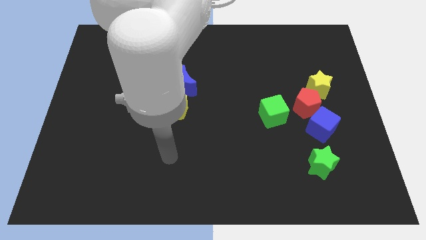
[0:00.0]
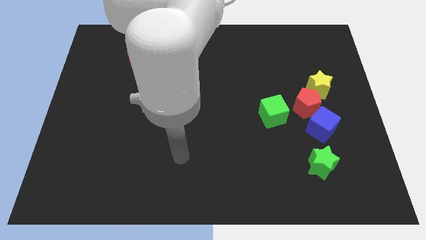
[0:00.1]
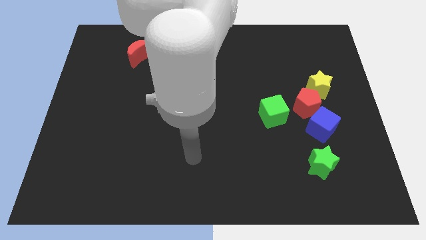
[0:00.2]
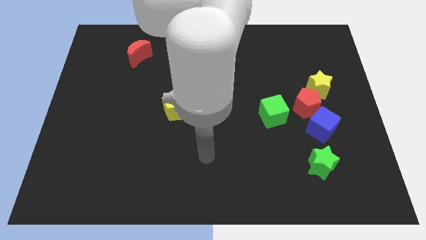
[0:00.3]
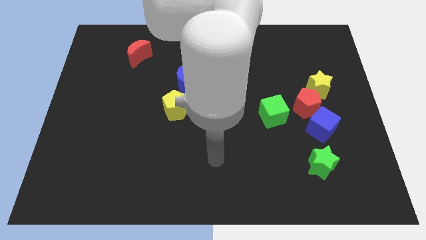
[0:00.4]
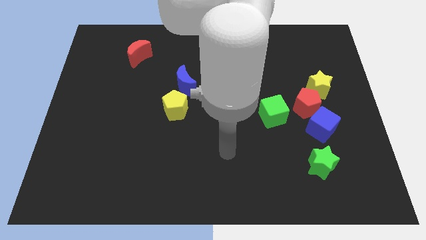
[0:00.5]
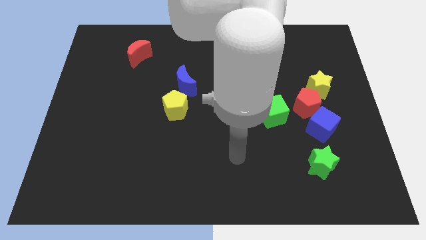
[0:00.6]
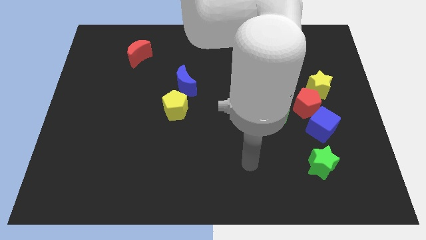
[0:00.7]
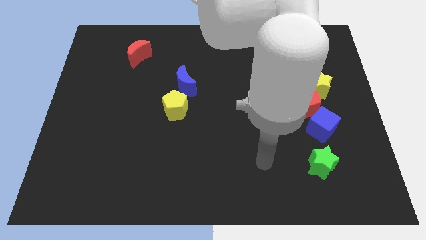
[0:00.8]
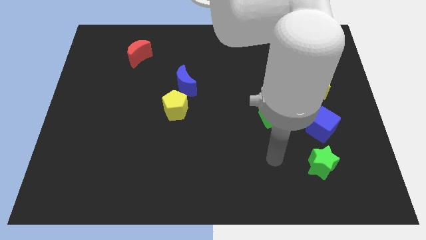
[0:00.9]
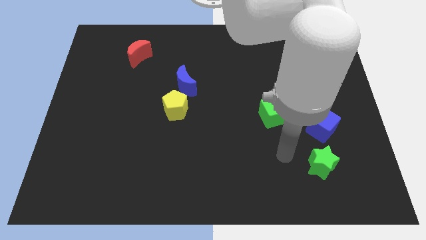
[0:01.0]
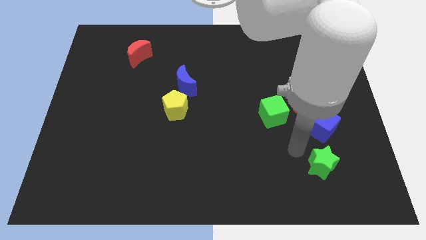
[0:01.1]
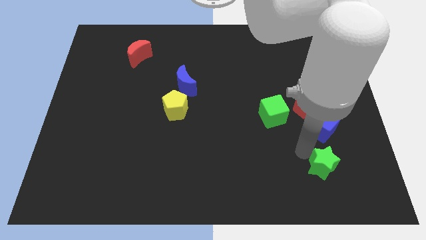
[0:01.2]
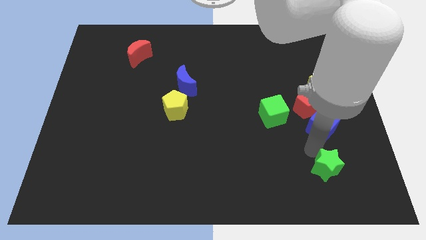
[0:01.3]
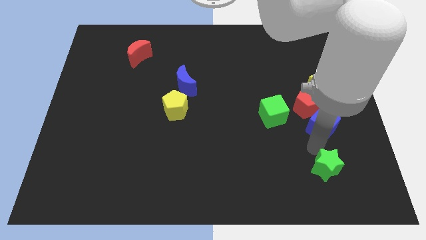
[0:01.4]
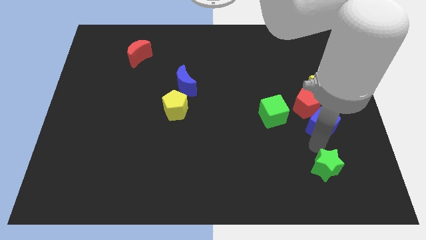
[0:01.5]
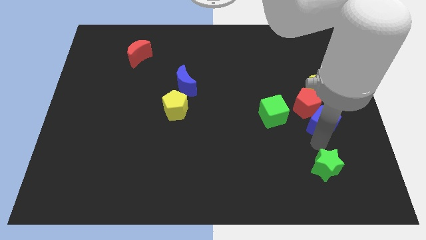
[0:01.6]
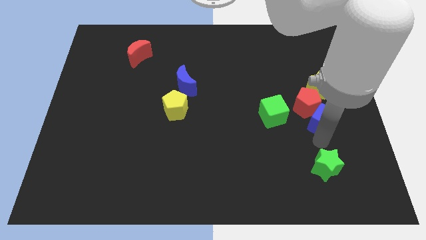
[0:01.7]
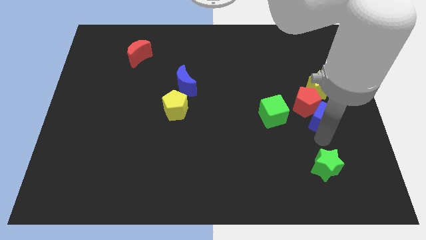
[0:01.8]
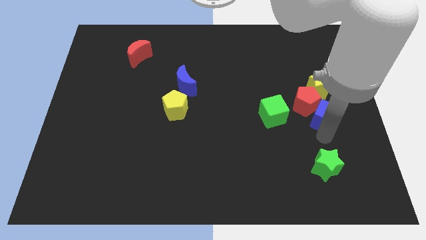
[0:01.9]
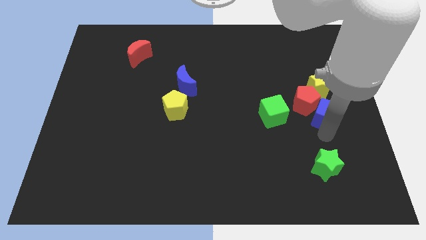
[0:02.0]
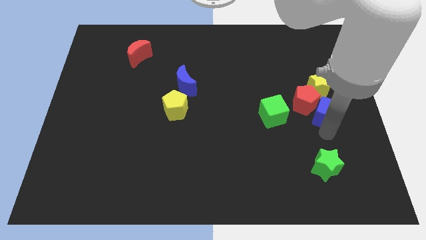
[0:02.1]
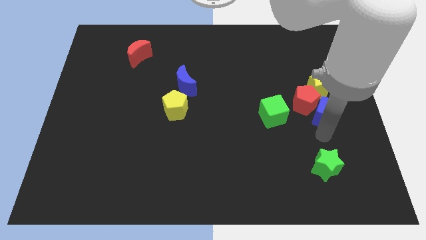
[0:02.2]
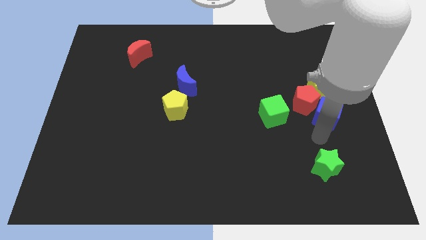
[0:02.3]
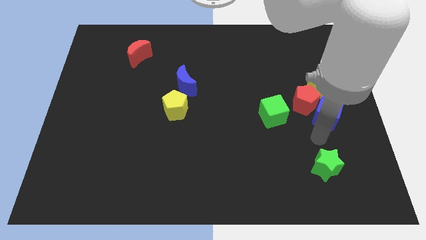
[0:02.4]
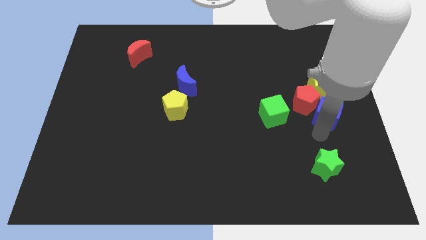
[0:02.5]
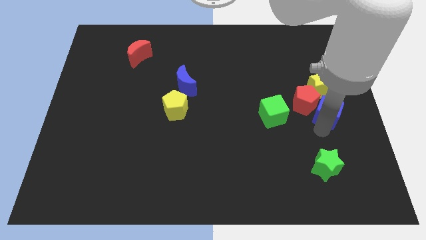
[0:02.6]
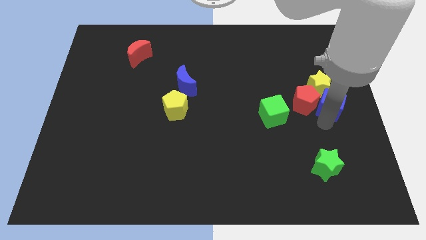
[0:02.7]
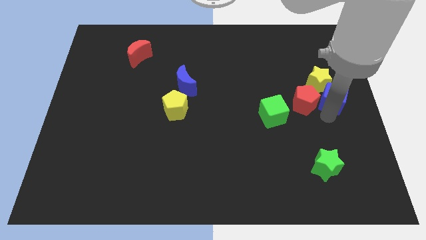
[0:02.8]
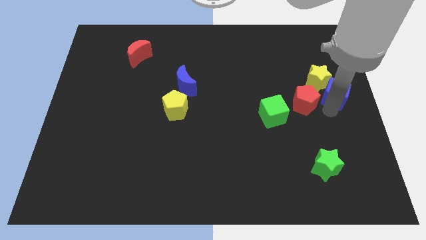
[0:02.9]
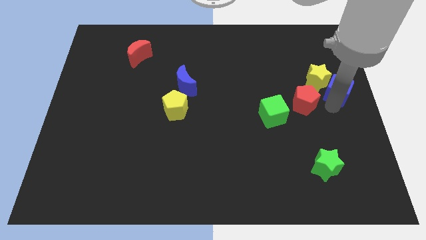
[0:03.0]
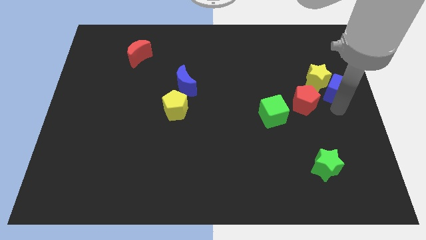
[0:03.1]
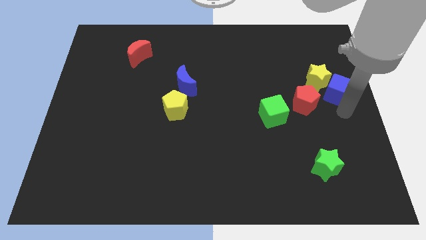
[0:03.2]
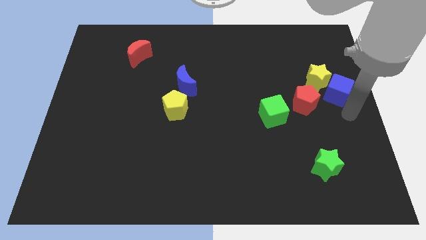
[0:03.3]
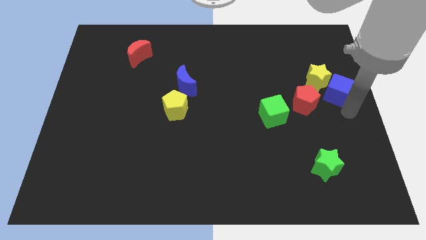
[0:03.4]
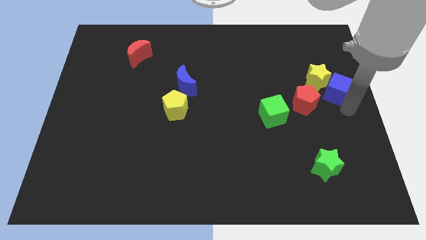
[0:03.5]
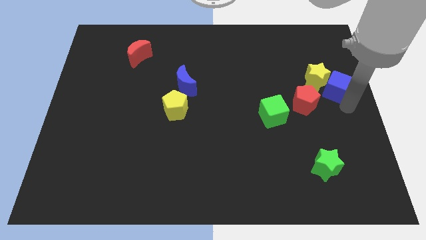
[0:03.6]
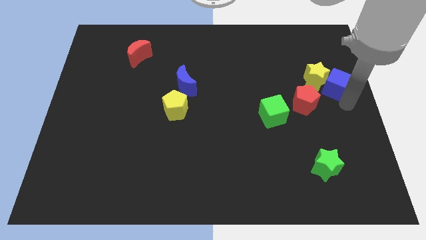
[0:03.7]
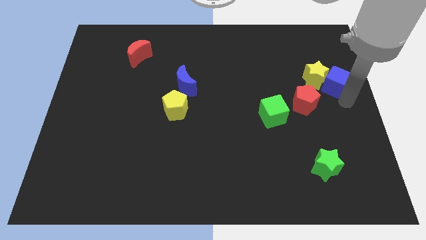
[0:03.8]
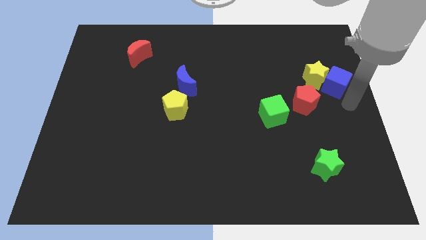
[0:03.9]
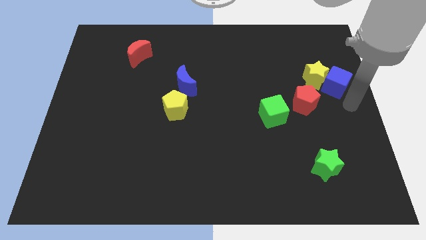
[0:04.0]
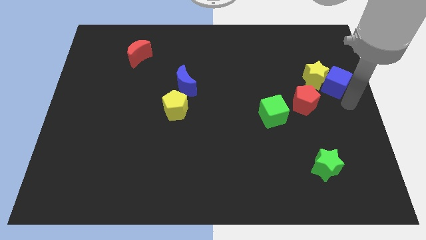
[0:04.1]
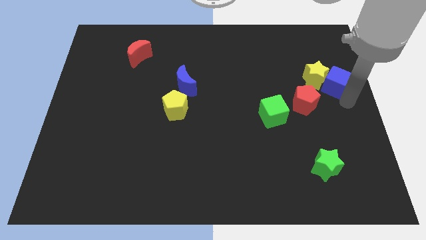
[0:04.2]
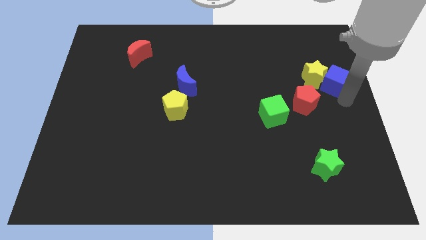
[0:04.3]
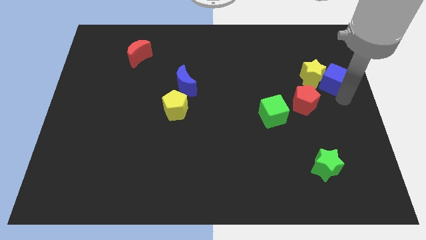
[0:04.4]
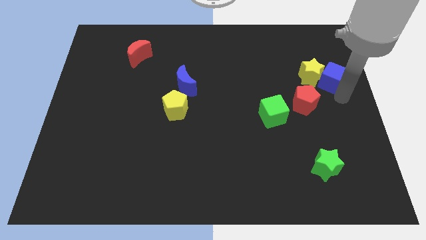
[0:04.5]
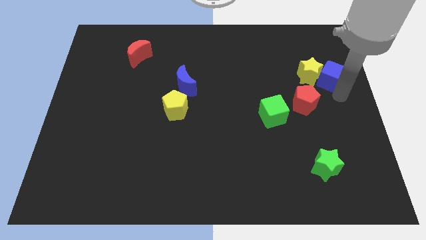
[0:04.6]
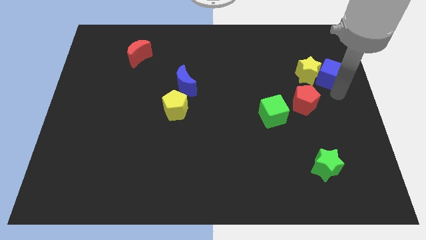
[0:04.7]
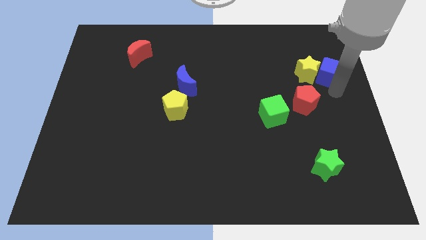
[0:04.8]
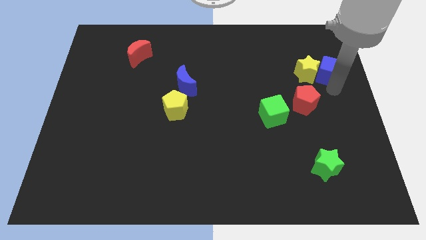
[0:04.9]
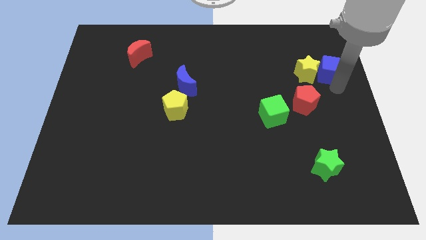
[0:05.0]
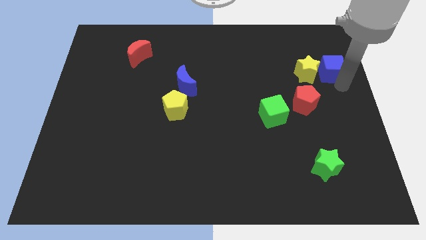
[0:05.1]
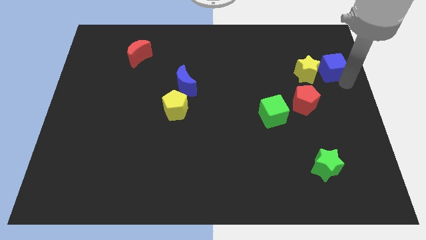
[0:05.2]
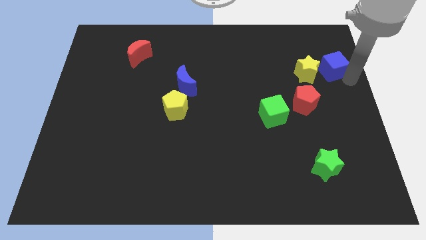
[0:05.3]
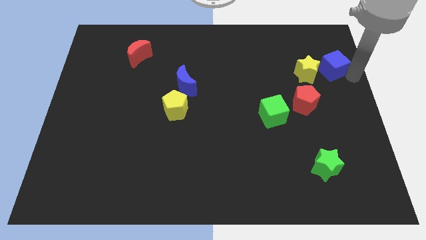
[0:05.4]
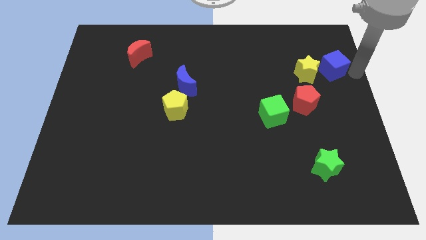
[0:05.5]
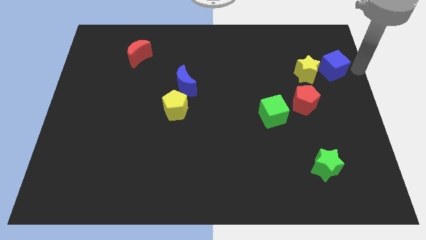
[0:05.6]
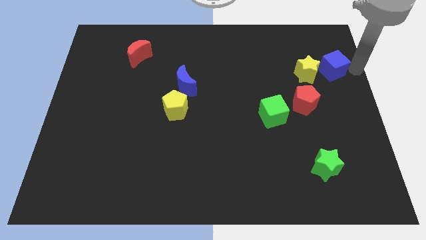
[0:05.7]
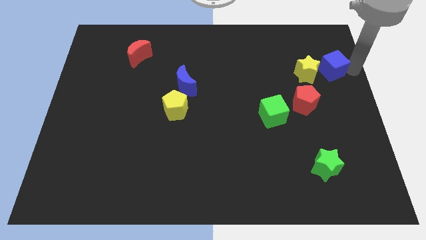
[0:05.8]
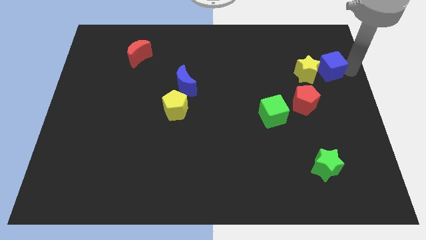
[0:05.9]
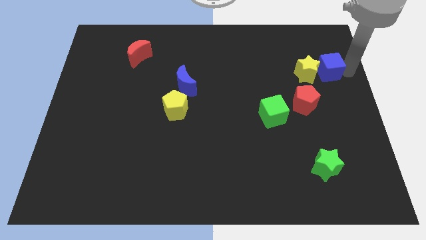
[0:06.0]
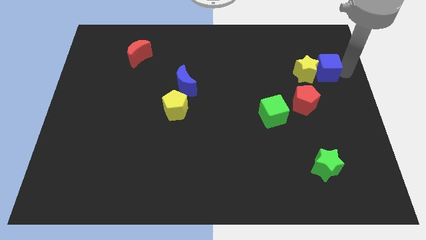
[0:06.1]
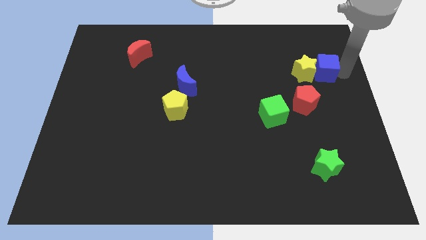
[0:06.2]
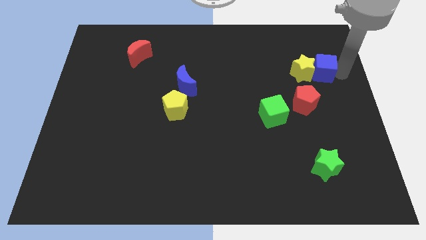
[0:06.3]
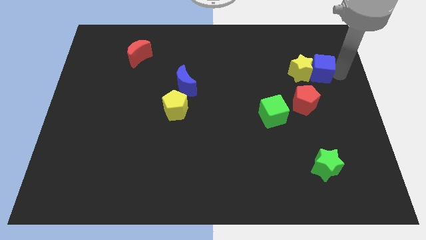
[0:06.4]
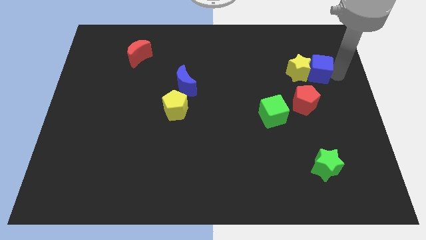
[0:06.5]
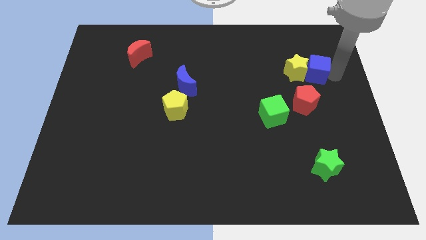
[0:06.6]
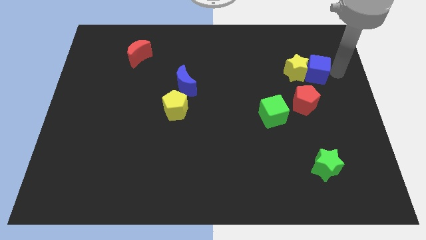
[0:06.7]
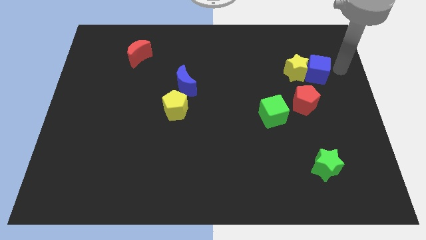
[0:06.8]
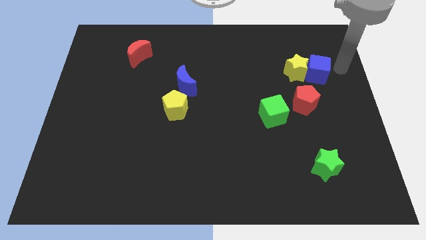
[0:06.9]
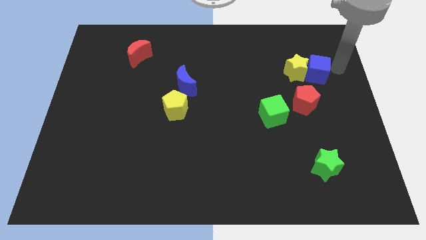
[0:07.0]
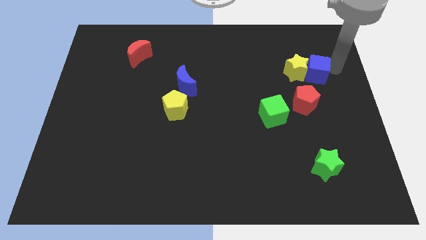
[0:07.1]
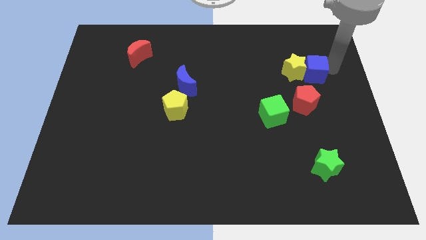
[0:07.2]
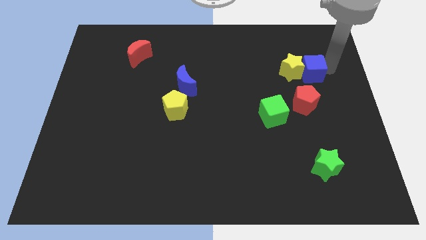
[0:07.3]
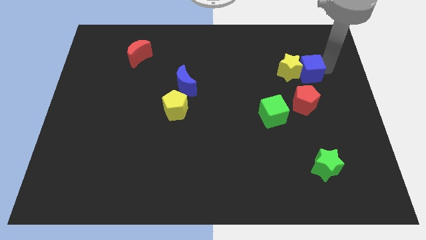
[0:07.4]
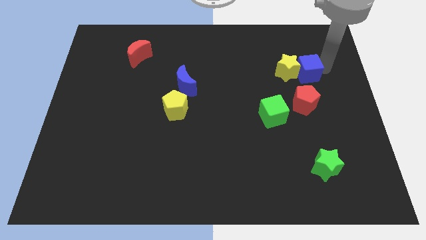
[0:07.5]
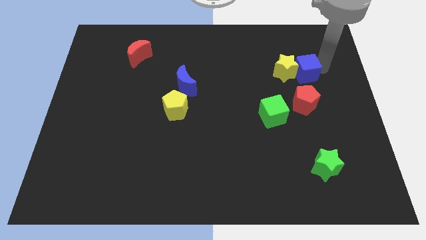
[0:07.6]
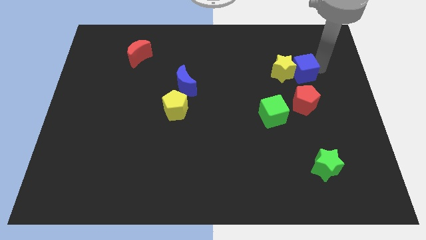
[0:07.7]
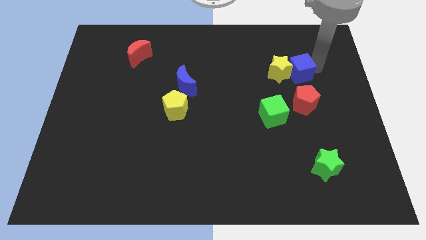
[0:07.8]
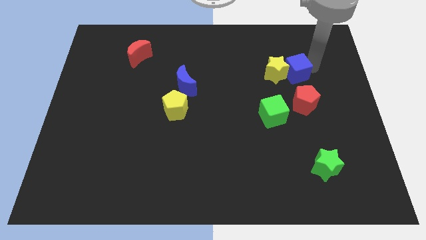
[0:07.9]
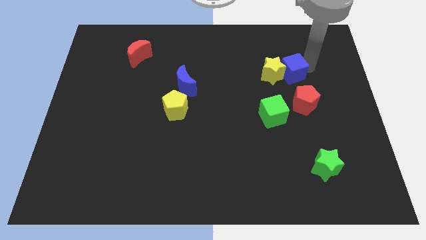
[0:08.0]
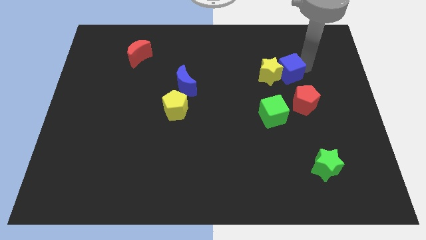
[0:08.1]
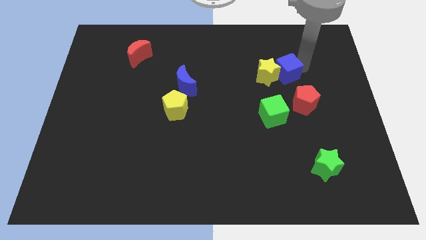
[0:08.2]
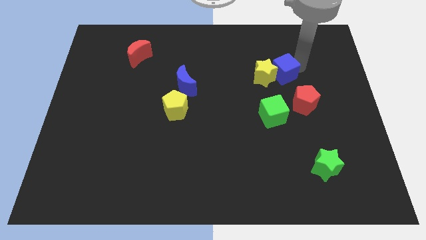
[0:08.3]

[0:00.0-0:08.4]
put the blue cube to the top of the green cube
